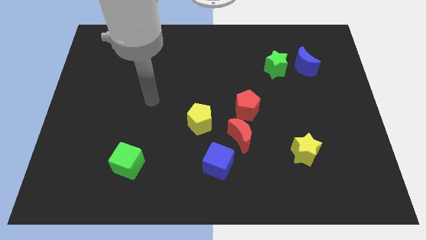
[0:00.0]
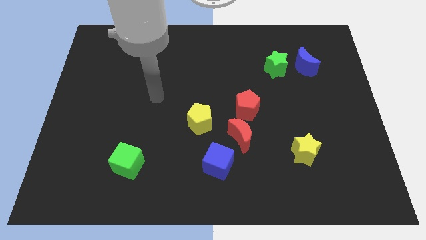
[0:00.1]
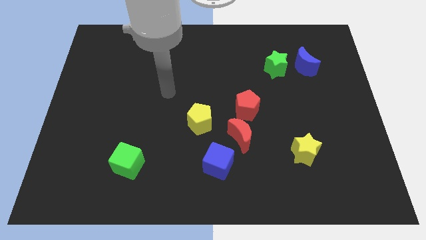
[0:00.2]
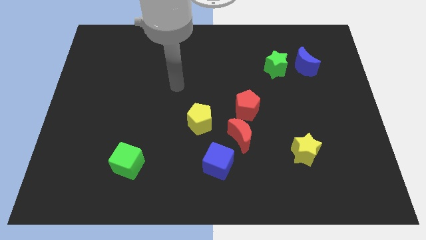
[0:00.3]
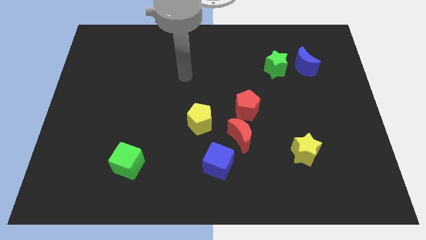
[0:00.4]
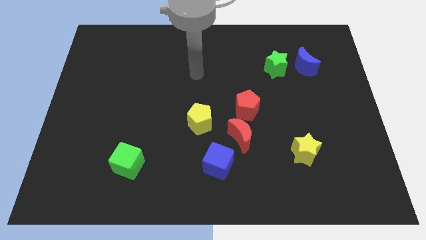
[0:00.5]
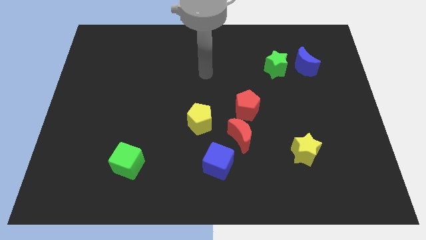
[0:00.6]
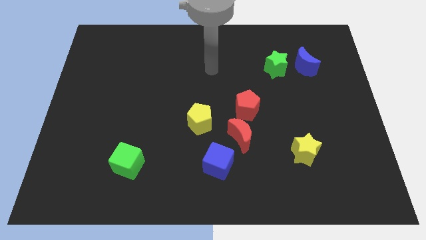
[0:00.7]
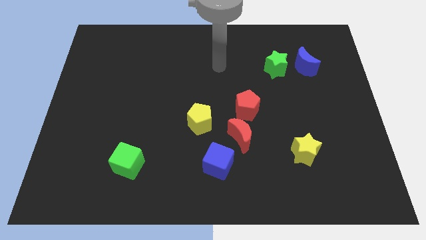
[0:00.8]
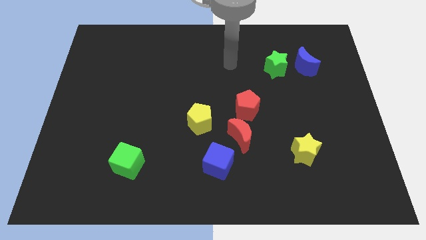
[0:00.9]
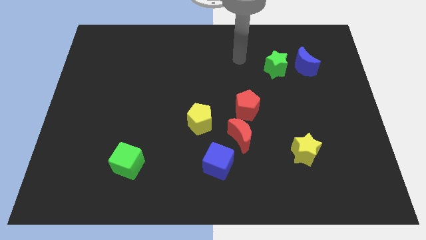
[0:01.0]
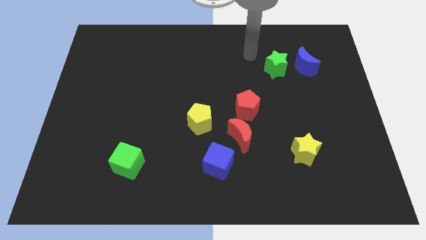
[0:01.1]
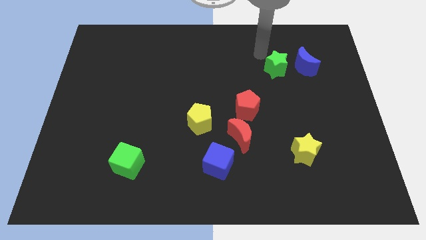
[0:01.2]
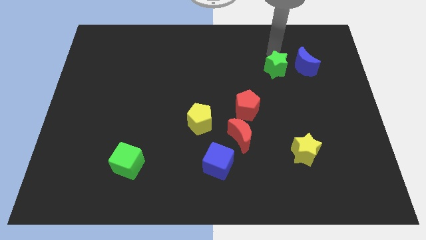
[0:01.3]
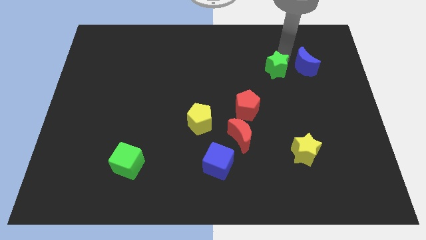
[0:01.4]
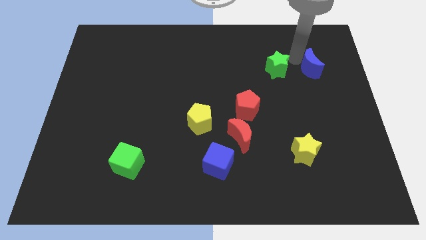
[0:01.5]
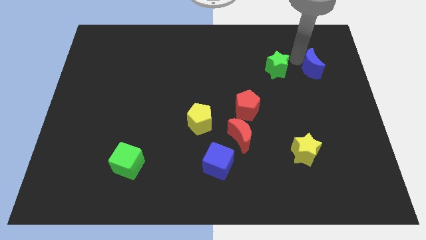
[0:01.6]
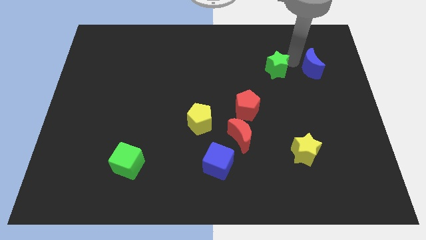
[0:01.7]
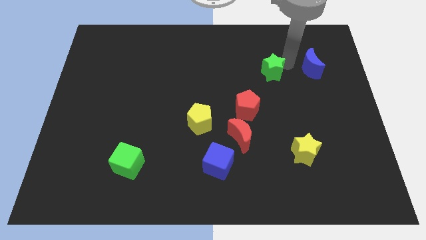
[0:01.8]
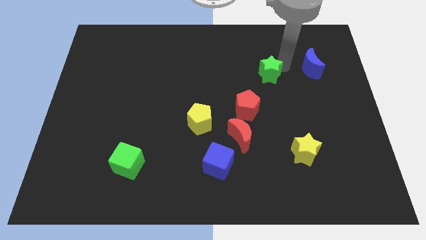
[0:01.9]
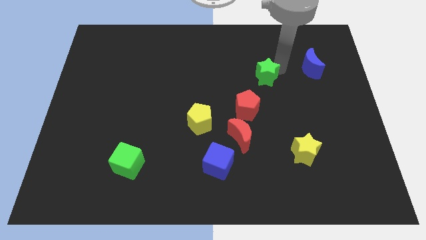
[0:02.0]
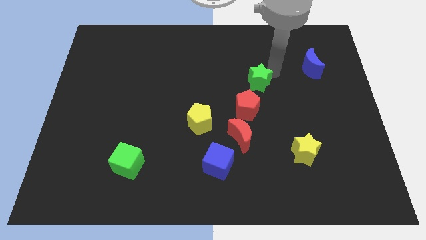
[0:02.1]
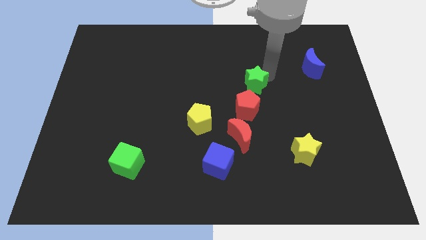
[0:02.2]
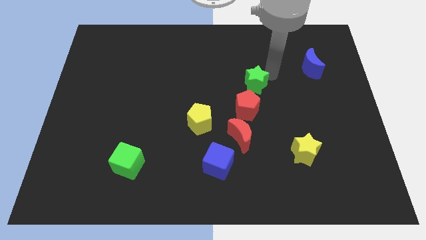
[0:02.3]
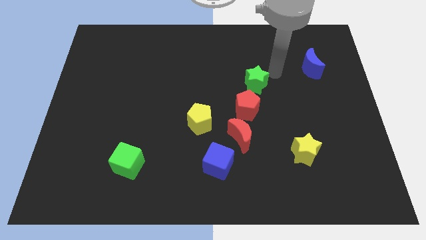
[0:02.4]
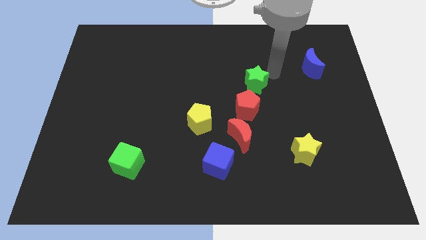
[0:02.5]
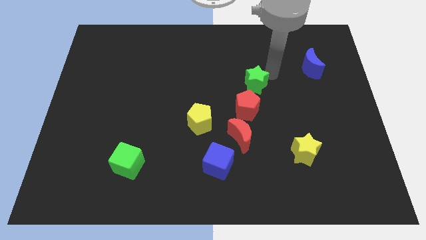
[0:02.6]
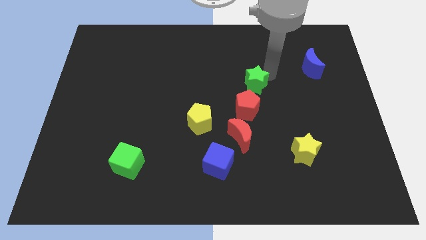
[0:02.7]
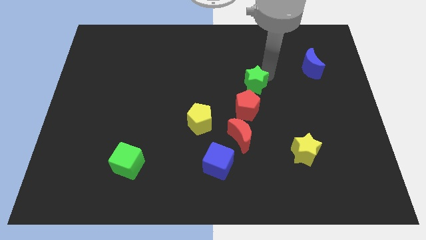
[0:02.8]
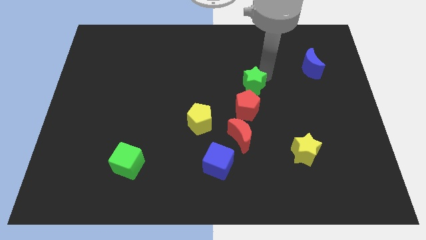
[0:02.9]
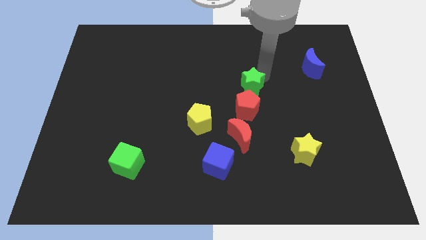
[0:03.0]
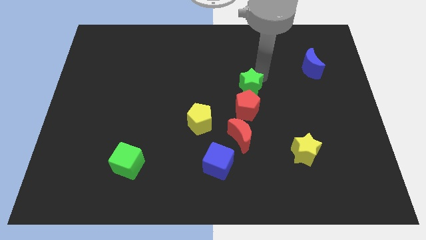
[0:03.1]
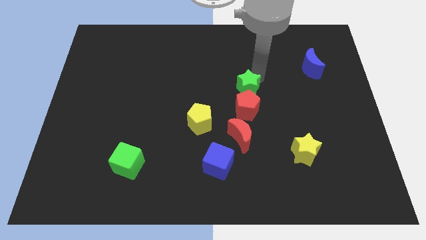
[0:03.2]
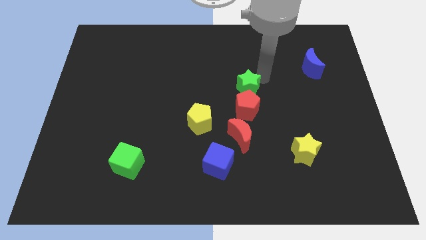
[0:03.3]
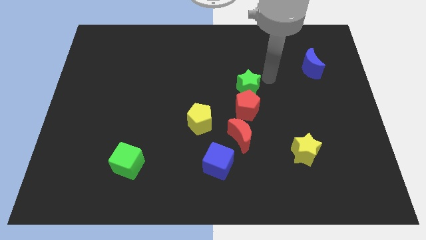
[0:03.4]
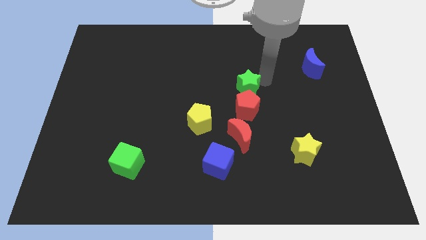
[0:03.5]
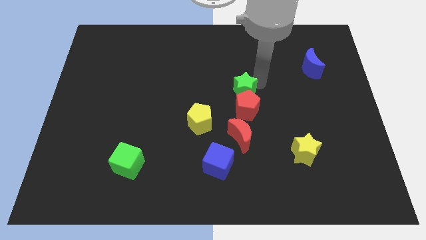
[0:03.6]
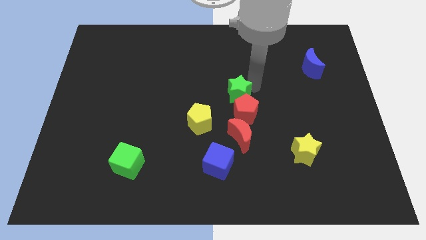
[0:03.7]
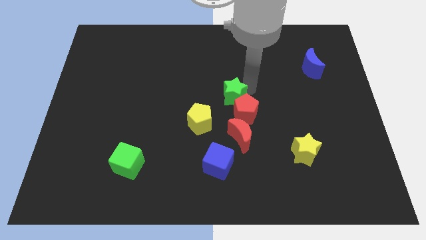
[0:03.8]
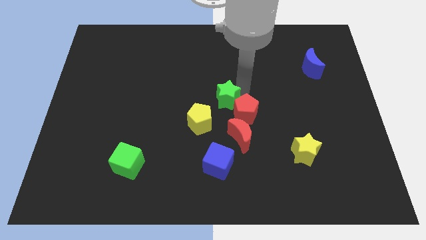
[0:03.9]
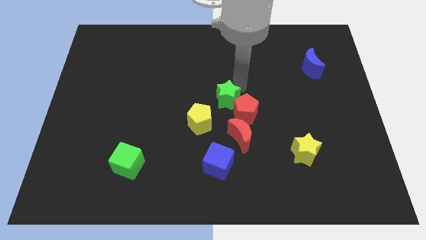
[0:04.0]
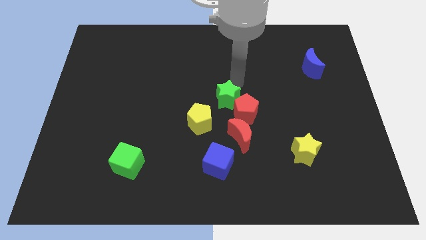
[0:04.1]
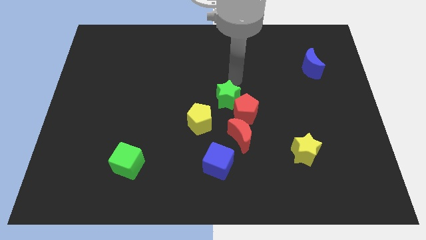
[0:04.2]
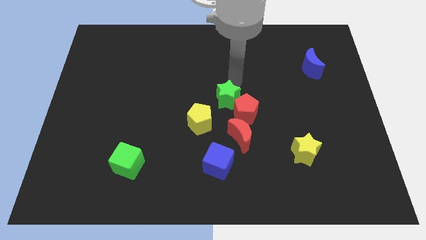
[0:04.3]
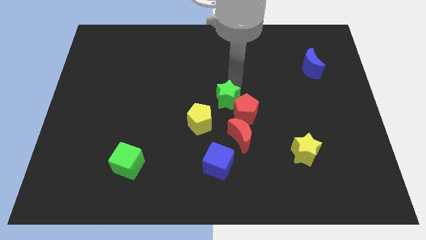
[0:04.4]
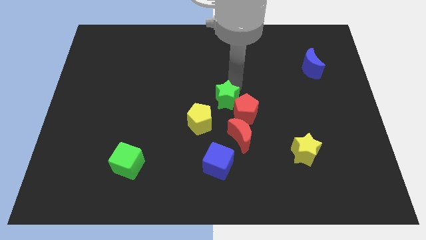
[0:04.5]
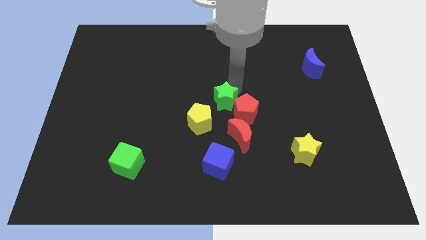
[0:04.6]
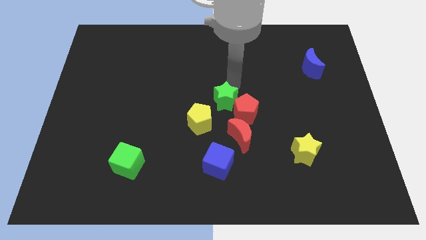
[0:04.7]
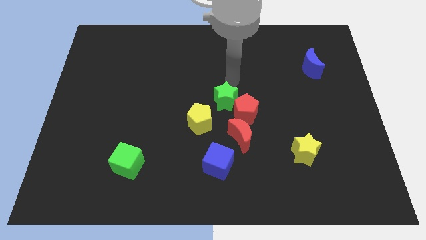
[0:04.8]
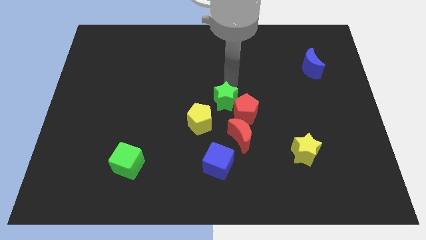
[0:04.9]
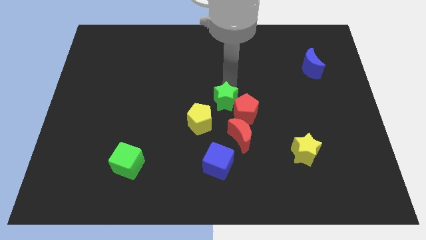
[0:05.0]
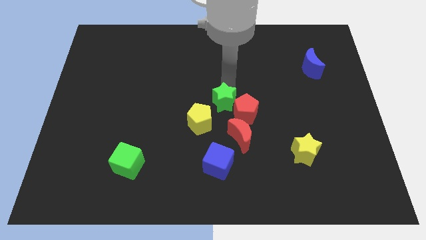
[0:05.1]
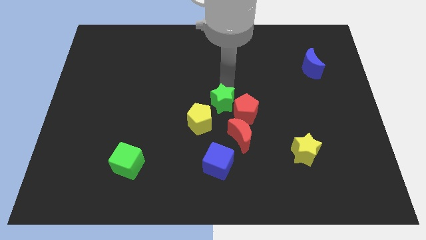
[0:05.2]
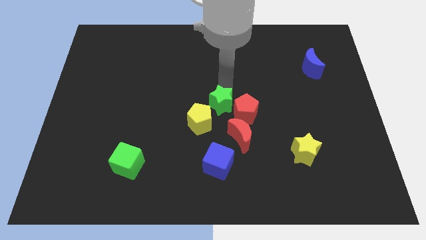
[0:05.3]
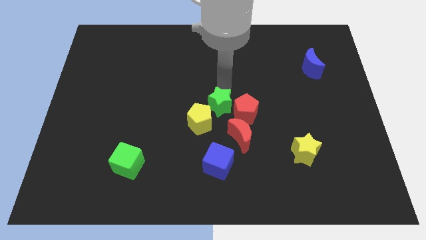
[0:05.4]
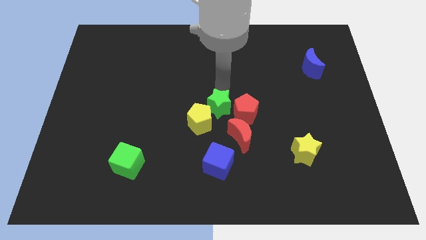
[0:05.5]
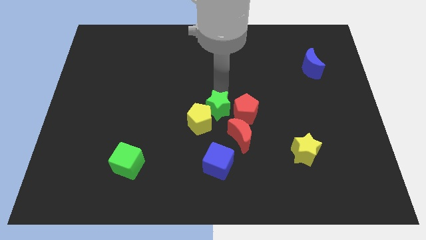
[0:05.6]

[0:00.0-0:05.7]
slide the green star down and to the left diagonally

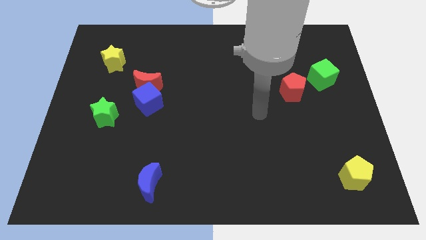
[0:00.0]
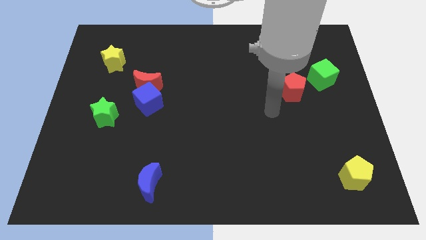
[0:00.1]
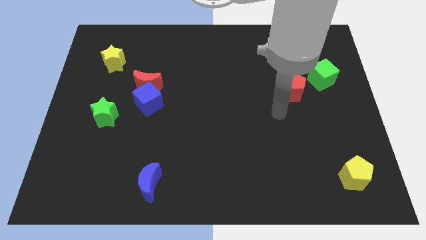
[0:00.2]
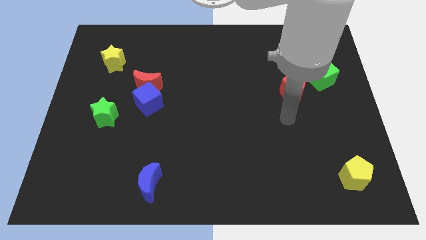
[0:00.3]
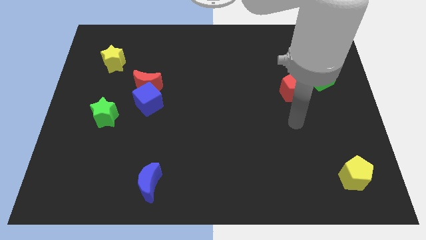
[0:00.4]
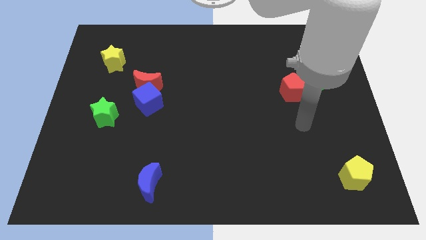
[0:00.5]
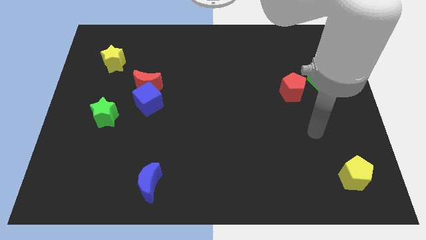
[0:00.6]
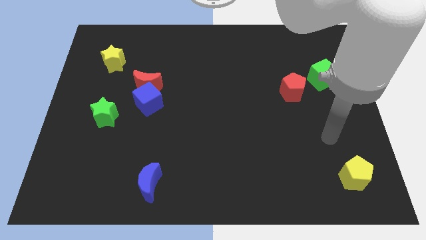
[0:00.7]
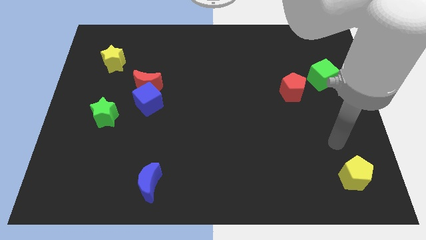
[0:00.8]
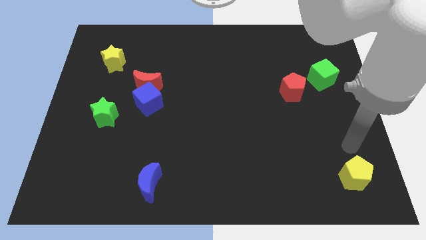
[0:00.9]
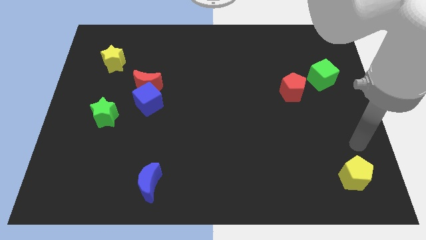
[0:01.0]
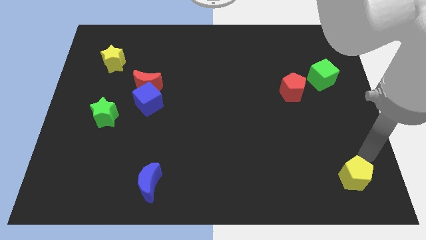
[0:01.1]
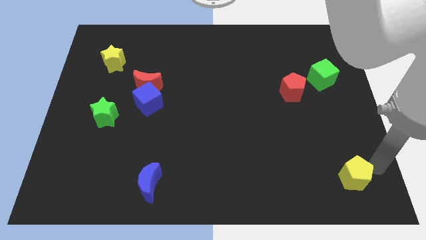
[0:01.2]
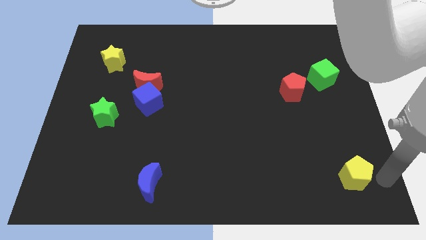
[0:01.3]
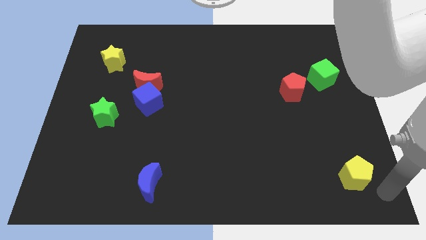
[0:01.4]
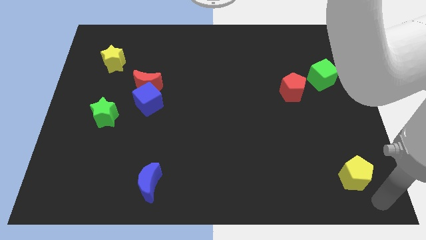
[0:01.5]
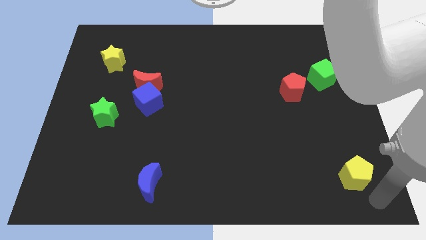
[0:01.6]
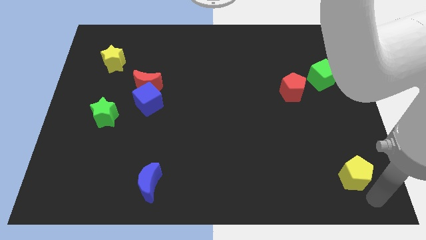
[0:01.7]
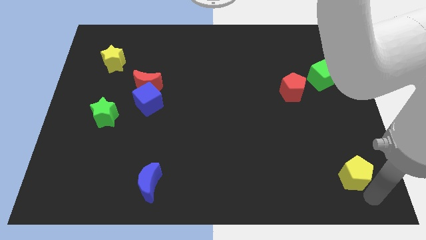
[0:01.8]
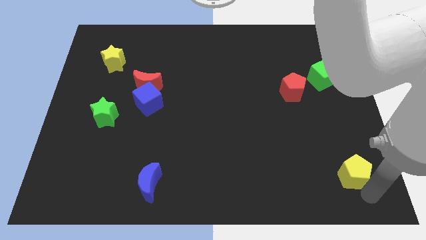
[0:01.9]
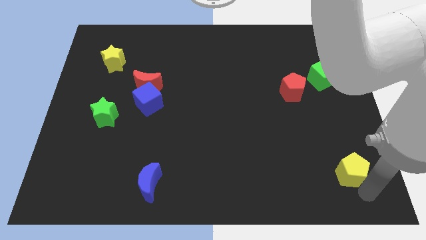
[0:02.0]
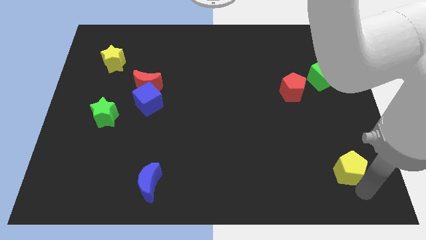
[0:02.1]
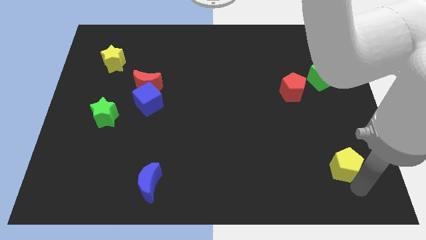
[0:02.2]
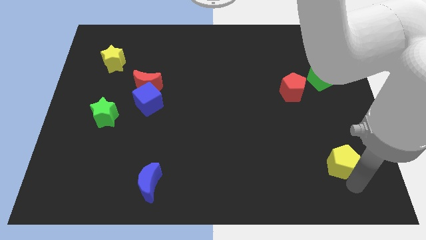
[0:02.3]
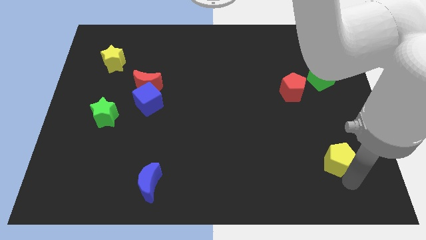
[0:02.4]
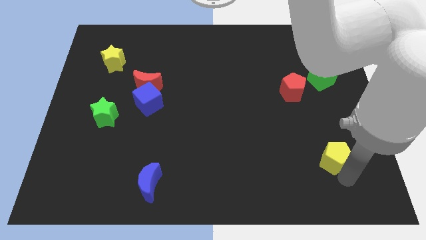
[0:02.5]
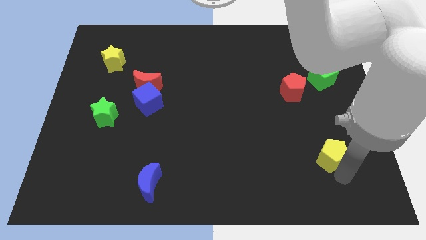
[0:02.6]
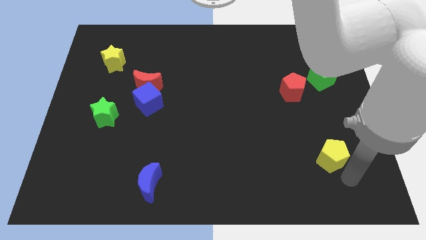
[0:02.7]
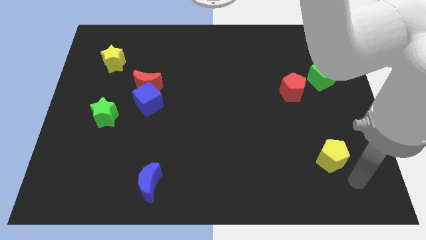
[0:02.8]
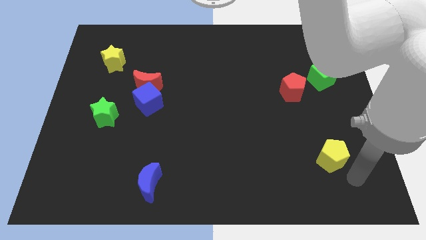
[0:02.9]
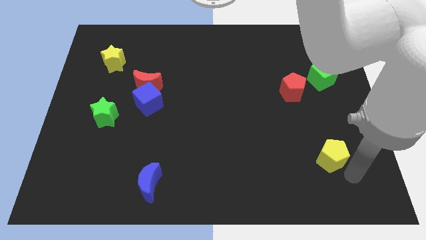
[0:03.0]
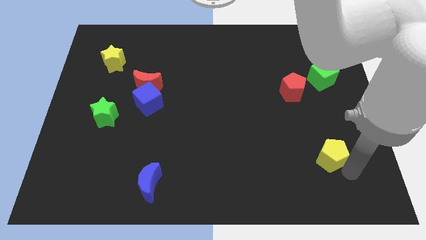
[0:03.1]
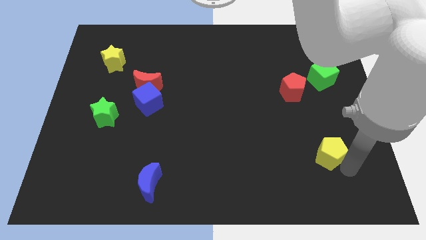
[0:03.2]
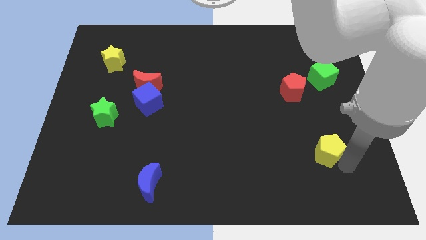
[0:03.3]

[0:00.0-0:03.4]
slide the yellow pentagon upwards and left a little bit
